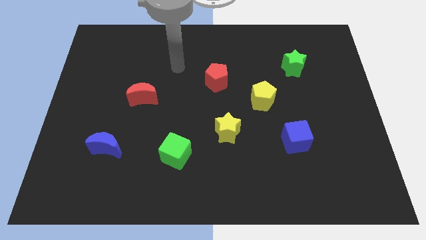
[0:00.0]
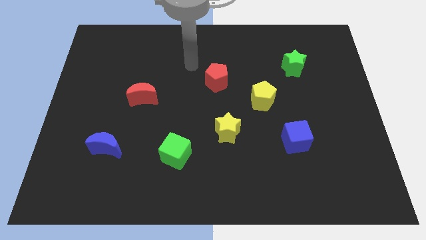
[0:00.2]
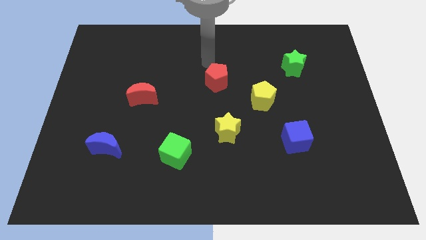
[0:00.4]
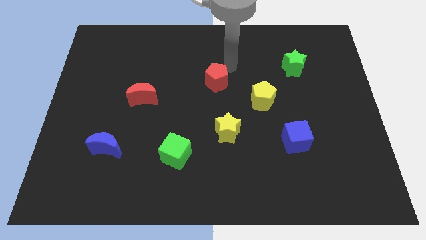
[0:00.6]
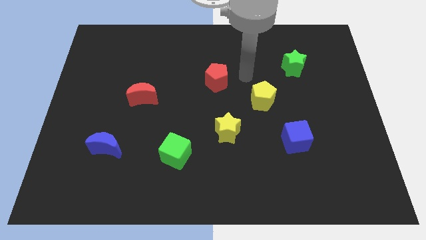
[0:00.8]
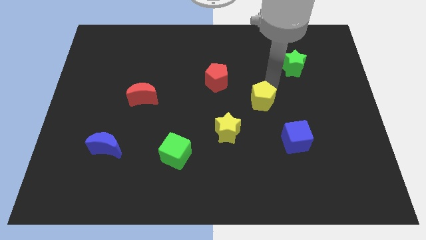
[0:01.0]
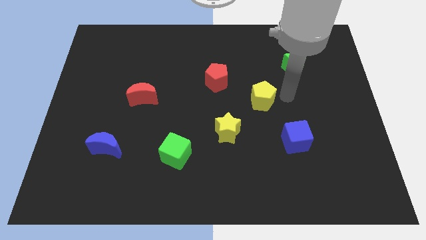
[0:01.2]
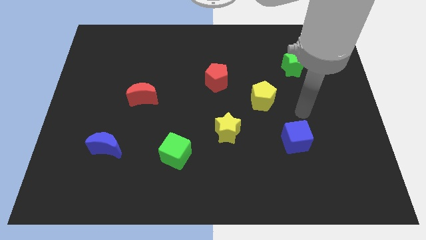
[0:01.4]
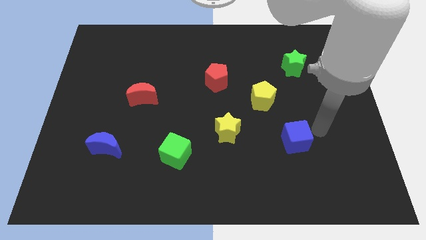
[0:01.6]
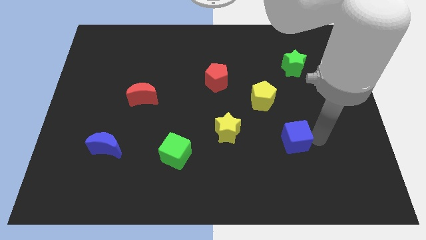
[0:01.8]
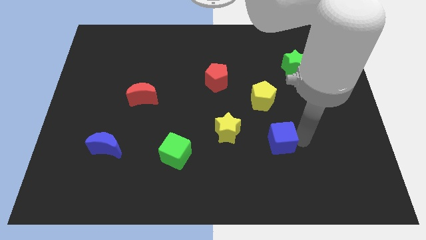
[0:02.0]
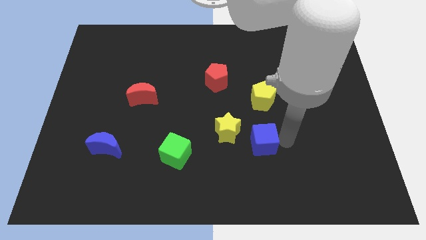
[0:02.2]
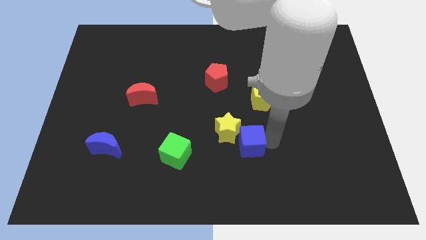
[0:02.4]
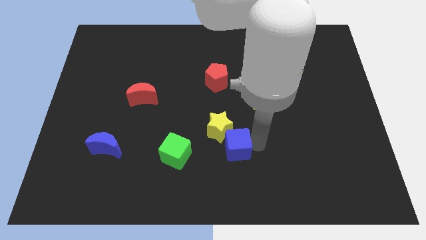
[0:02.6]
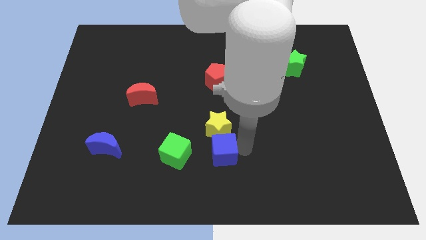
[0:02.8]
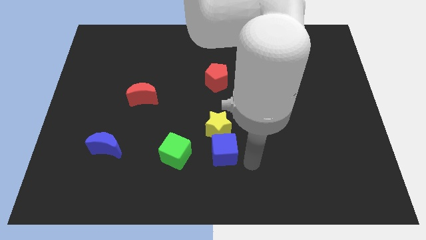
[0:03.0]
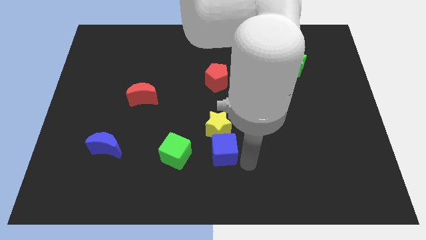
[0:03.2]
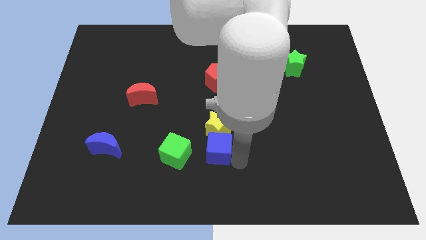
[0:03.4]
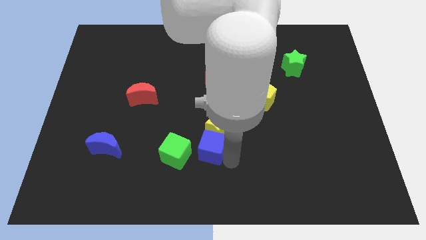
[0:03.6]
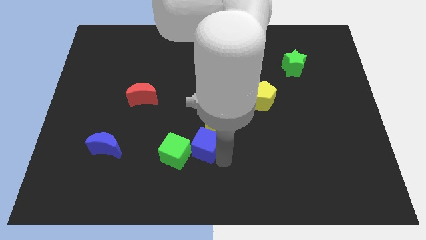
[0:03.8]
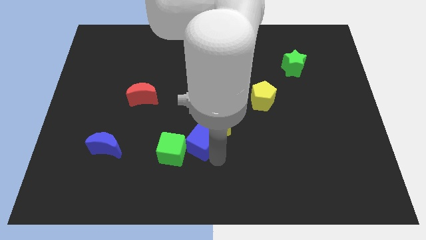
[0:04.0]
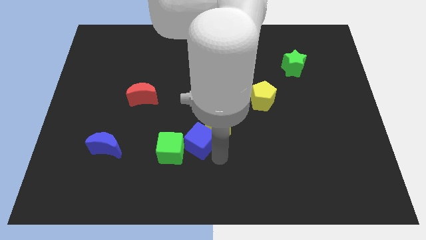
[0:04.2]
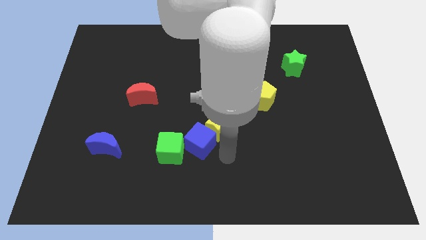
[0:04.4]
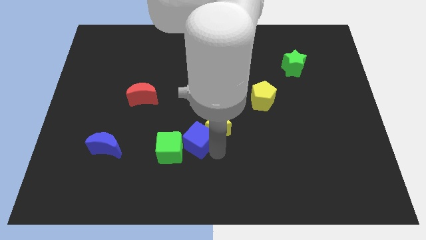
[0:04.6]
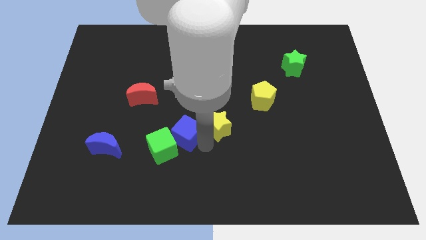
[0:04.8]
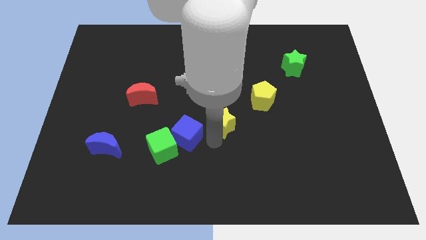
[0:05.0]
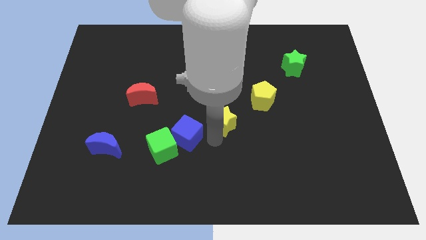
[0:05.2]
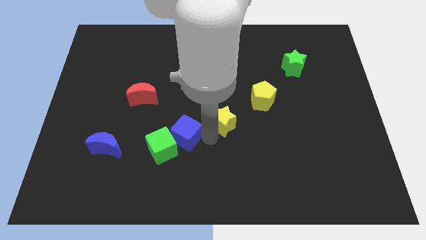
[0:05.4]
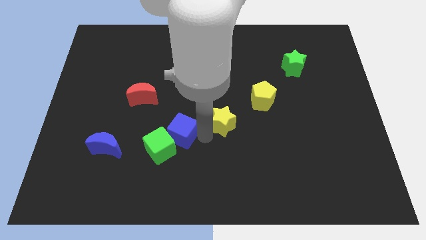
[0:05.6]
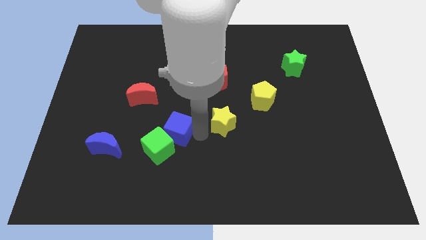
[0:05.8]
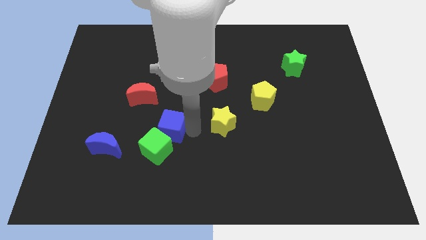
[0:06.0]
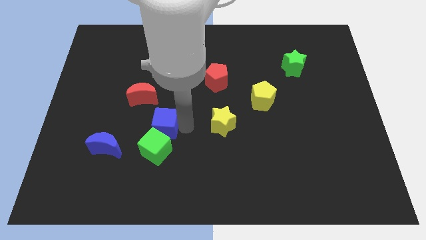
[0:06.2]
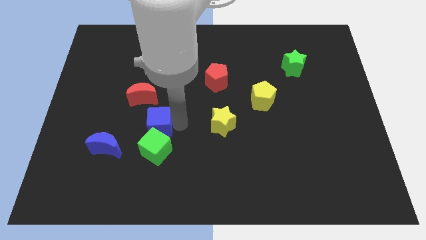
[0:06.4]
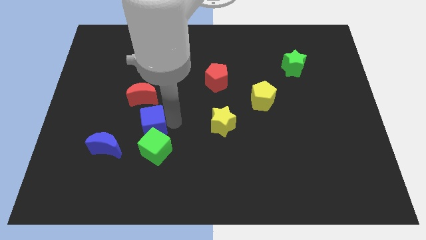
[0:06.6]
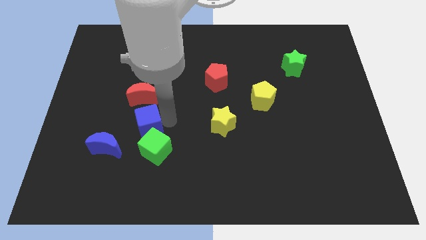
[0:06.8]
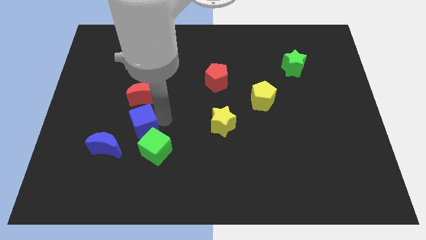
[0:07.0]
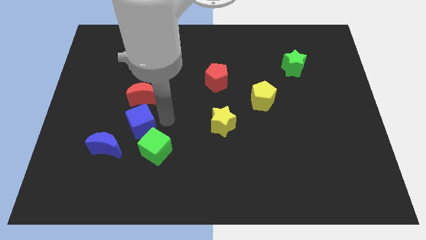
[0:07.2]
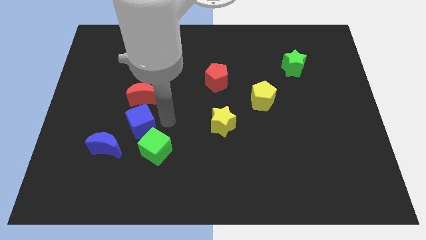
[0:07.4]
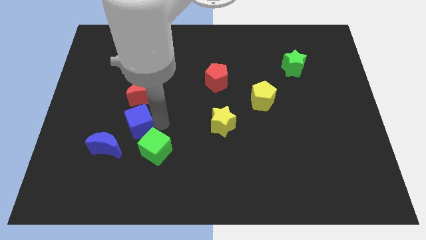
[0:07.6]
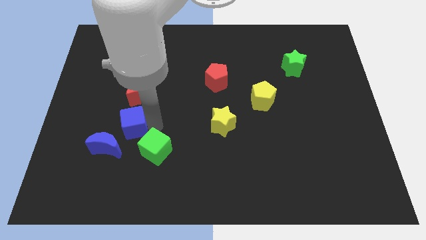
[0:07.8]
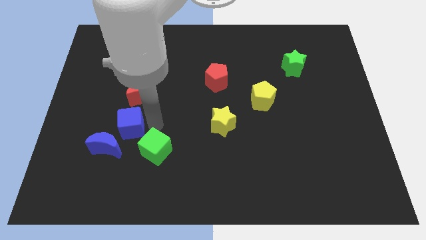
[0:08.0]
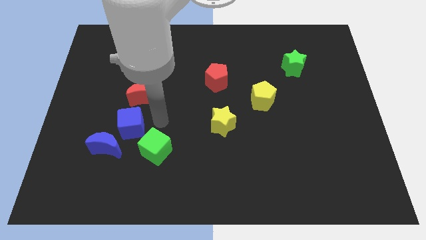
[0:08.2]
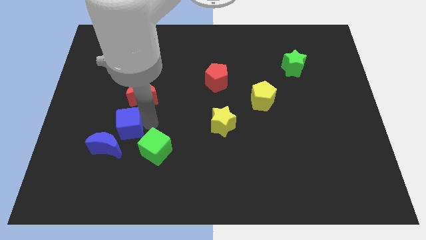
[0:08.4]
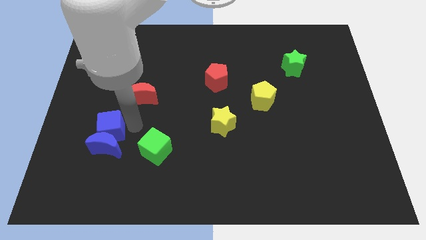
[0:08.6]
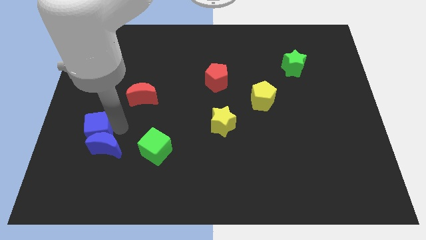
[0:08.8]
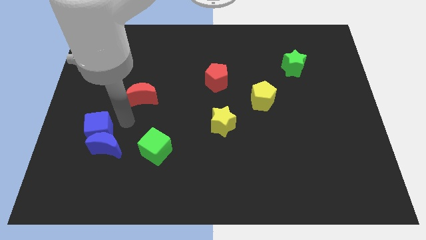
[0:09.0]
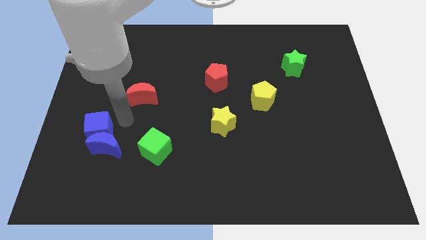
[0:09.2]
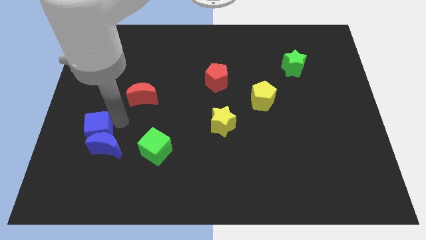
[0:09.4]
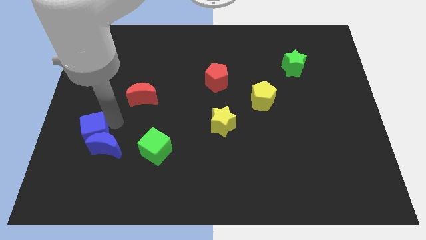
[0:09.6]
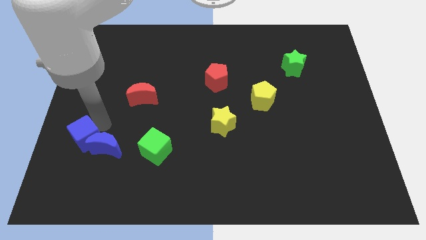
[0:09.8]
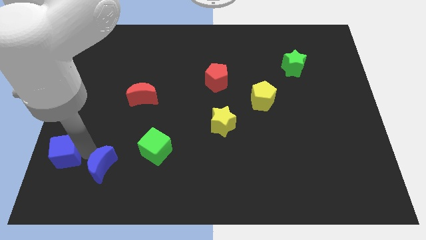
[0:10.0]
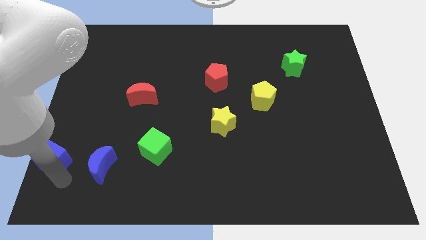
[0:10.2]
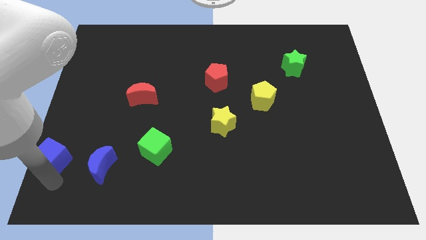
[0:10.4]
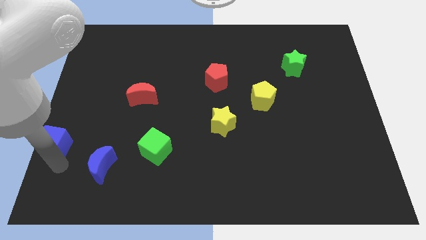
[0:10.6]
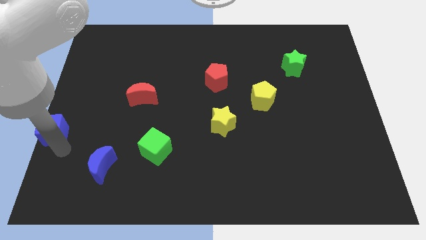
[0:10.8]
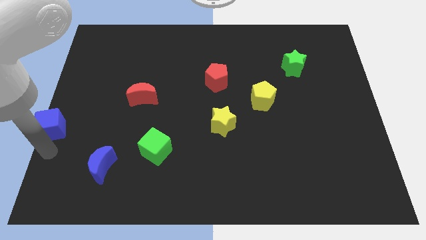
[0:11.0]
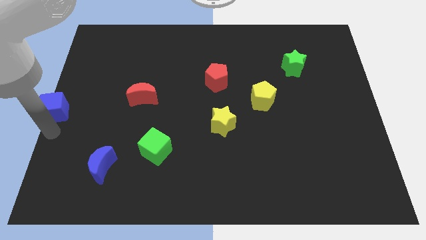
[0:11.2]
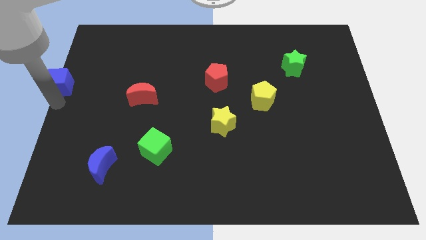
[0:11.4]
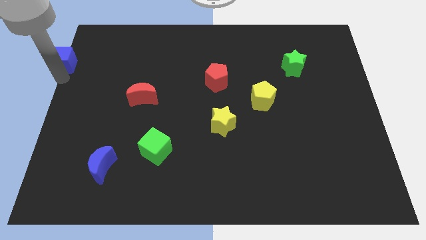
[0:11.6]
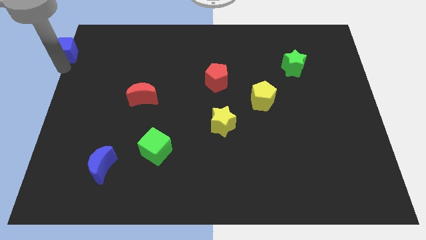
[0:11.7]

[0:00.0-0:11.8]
push the blue cube to the upper left corner

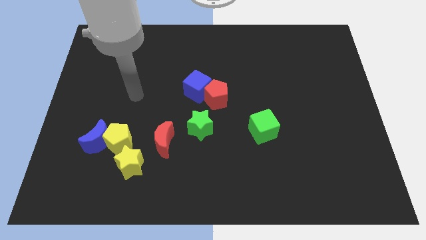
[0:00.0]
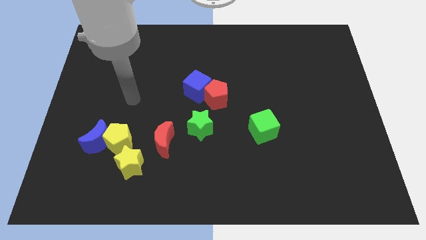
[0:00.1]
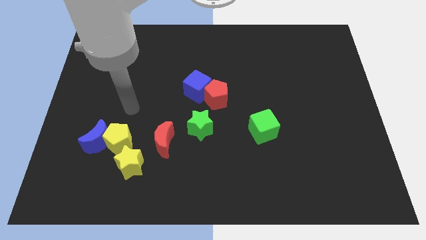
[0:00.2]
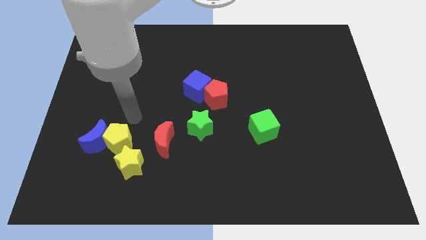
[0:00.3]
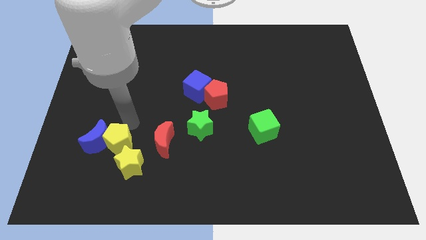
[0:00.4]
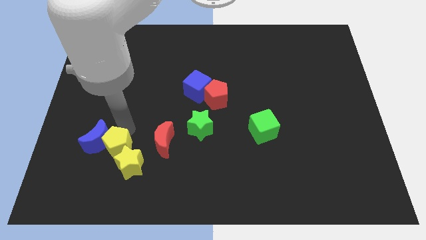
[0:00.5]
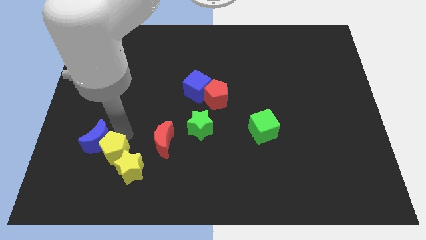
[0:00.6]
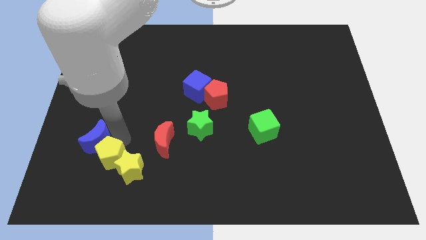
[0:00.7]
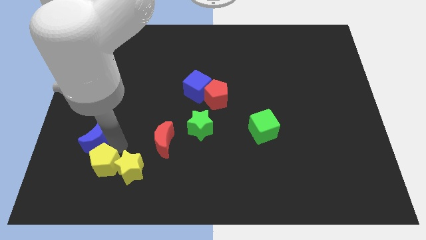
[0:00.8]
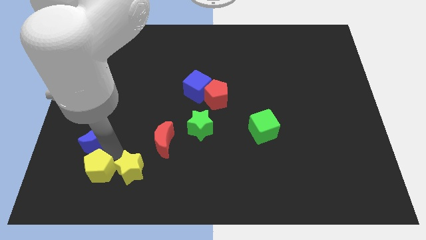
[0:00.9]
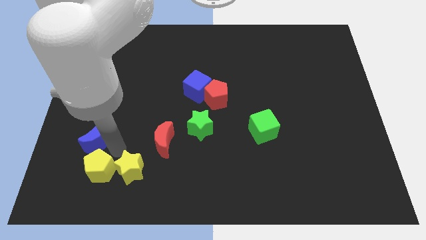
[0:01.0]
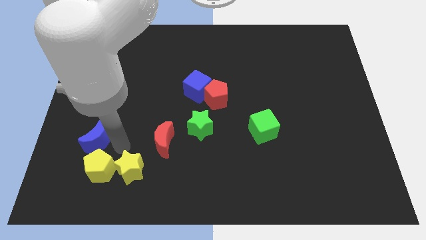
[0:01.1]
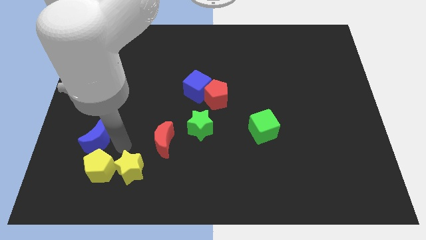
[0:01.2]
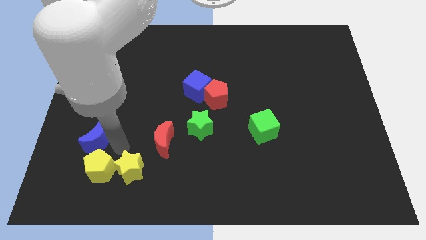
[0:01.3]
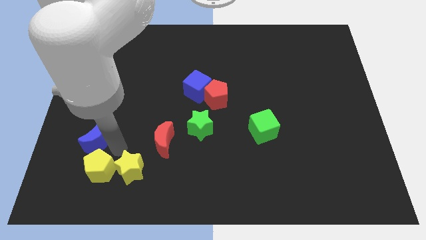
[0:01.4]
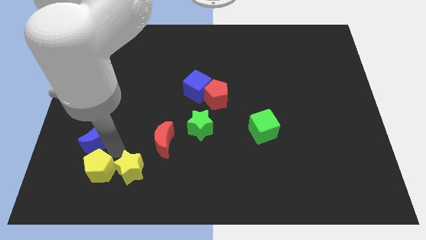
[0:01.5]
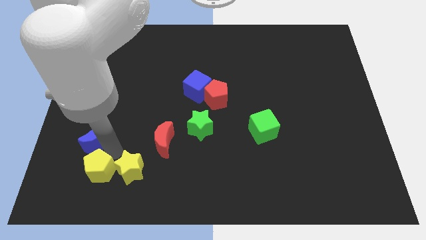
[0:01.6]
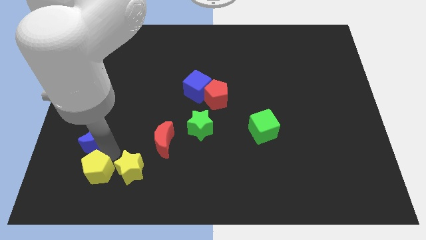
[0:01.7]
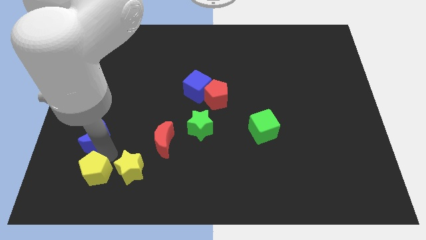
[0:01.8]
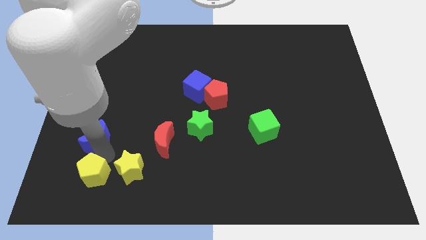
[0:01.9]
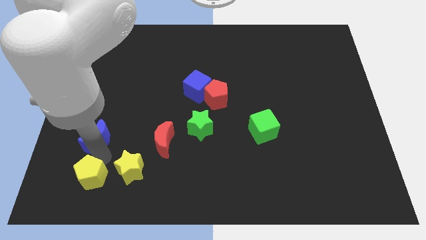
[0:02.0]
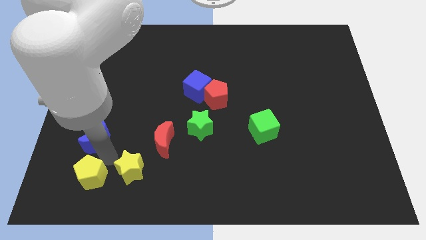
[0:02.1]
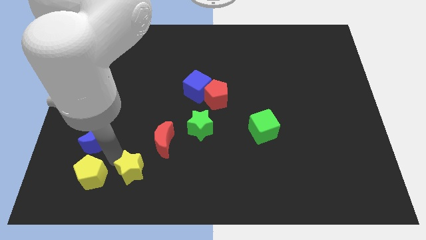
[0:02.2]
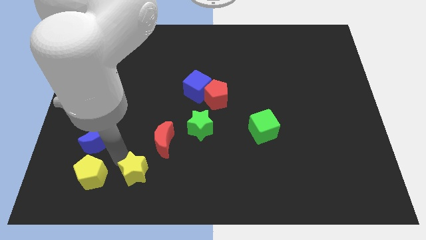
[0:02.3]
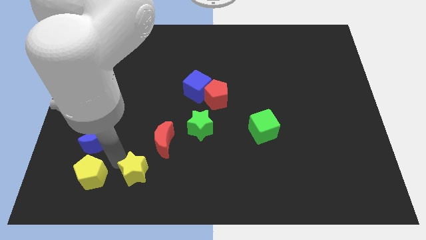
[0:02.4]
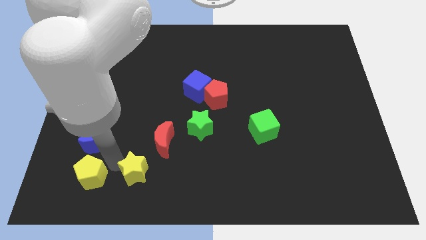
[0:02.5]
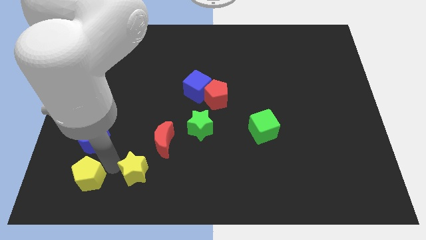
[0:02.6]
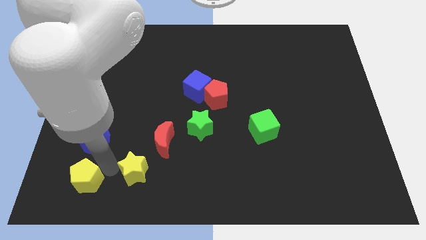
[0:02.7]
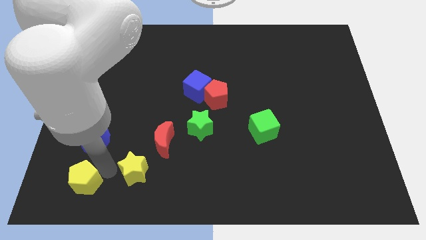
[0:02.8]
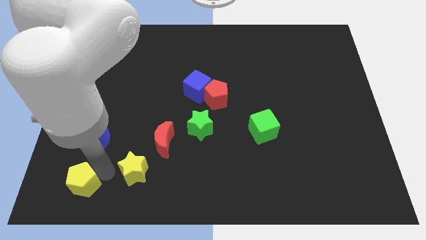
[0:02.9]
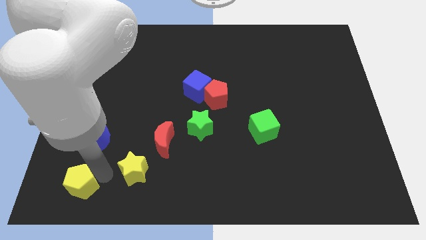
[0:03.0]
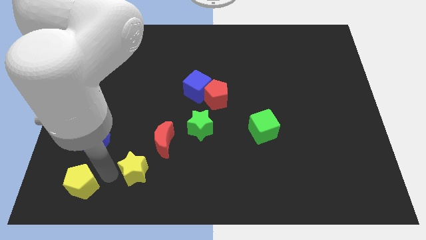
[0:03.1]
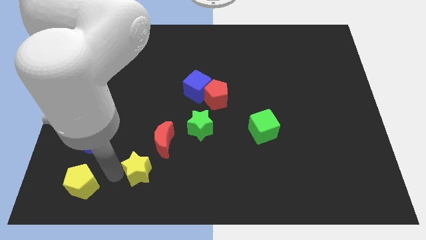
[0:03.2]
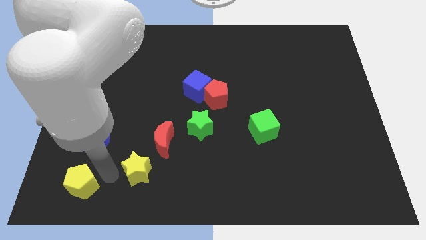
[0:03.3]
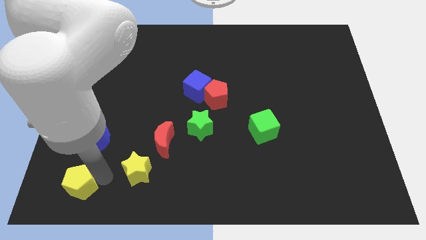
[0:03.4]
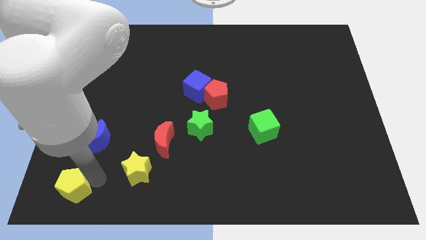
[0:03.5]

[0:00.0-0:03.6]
slide the yellow pentagon to the lower left corner
